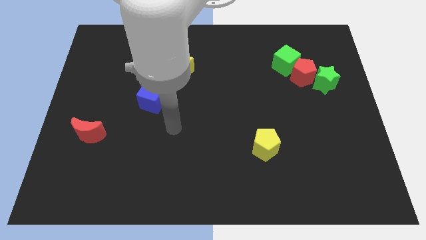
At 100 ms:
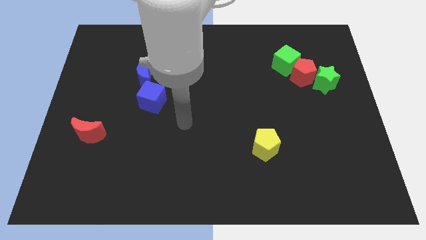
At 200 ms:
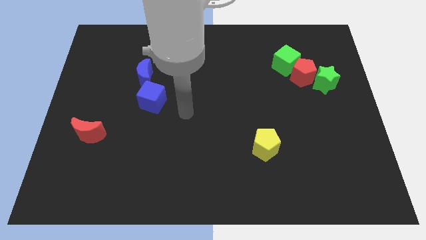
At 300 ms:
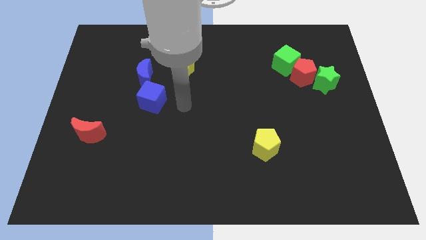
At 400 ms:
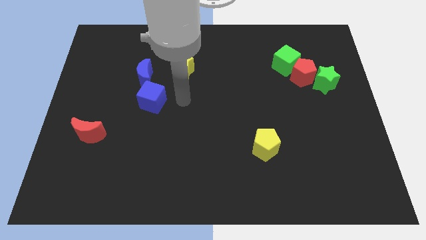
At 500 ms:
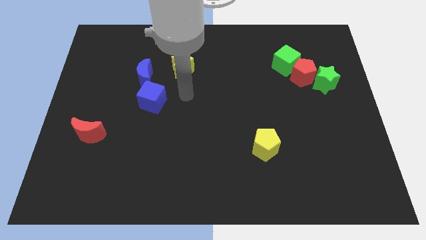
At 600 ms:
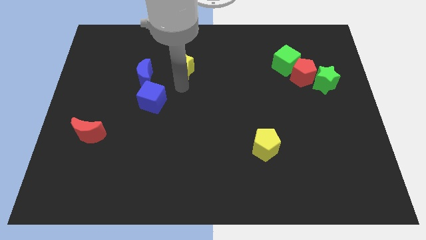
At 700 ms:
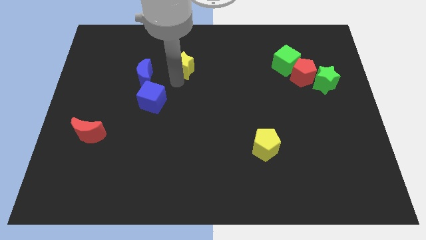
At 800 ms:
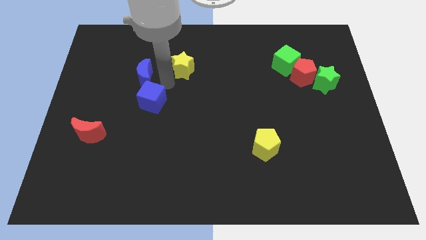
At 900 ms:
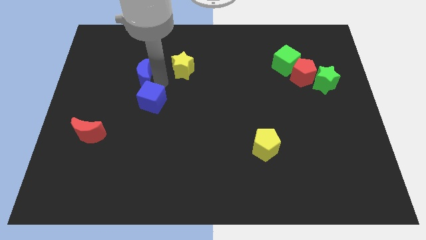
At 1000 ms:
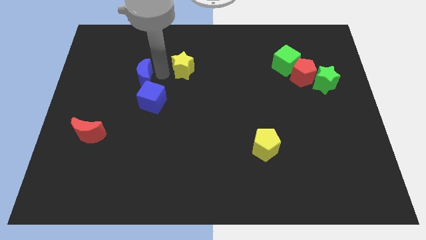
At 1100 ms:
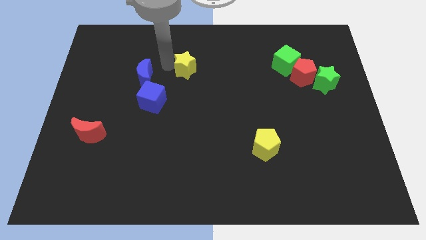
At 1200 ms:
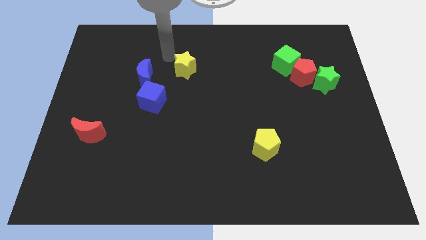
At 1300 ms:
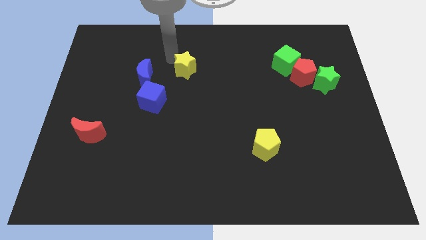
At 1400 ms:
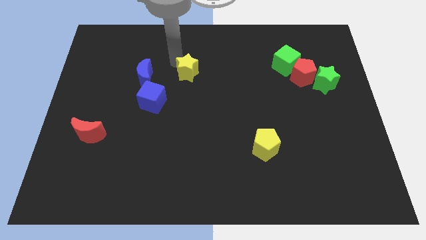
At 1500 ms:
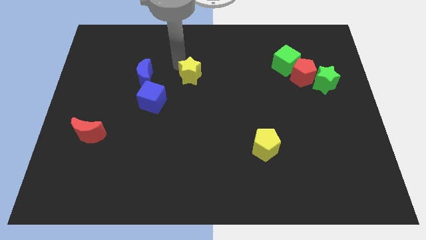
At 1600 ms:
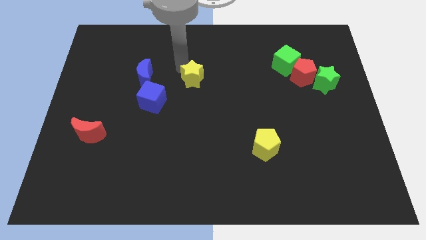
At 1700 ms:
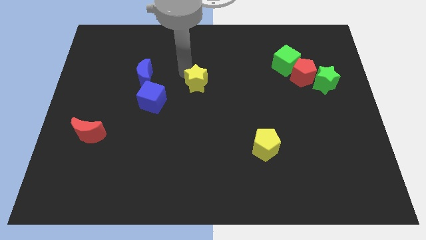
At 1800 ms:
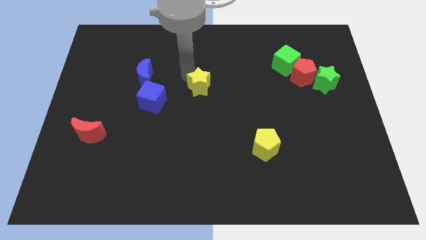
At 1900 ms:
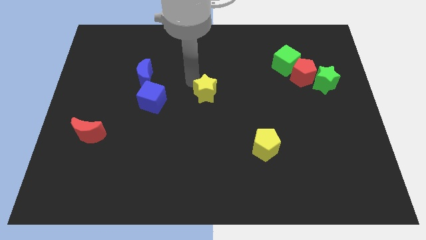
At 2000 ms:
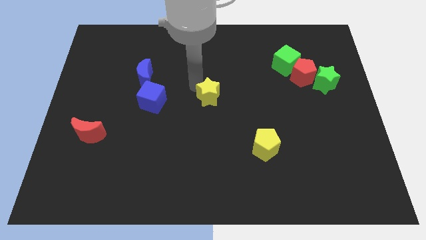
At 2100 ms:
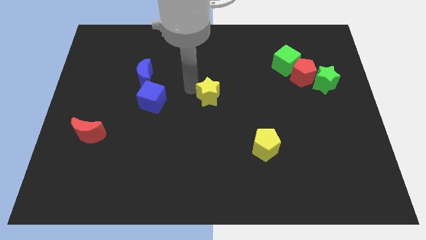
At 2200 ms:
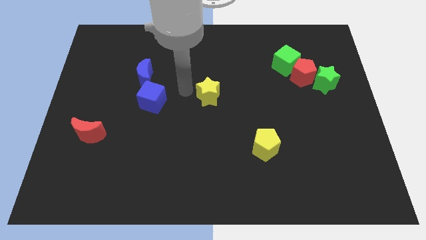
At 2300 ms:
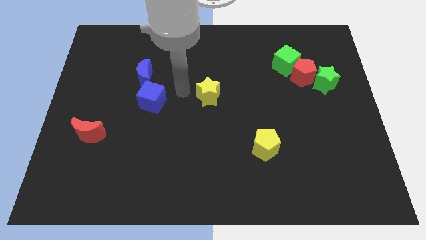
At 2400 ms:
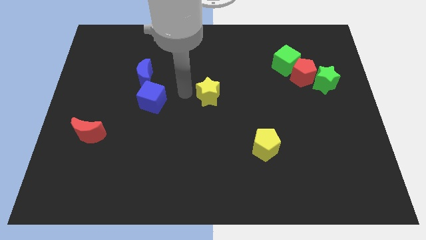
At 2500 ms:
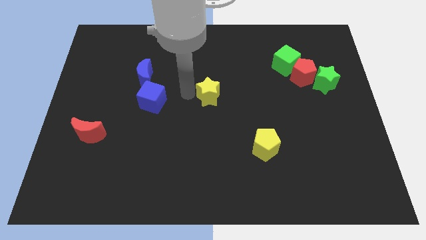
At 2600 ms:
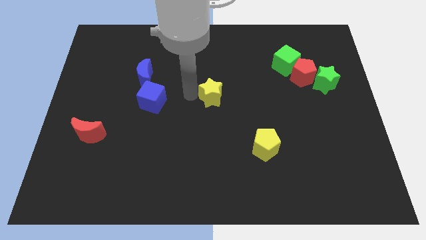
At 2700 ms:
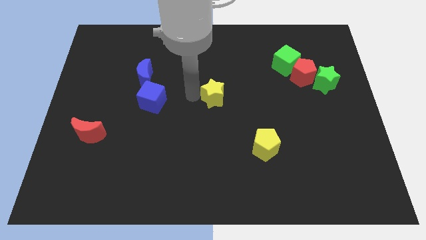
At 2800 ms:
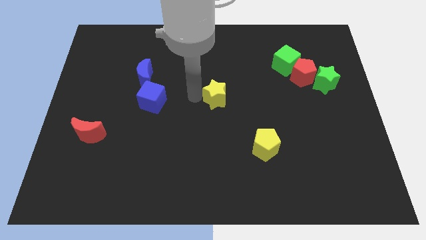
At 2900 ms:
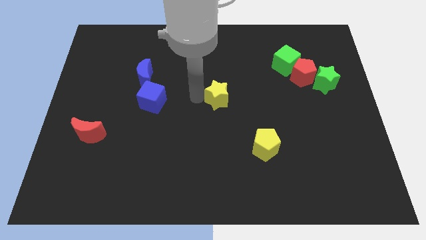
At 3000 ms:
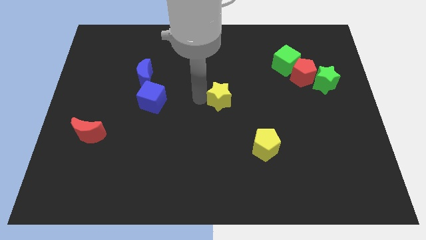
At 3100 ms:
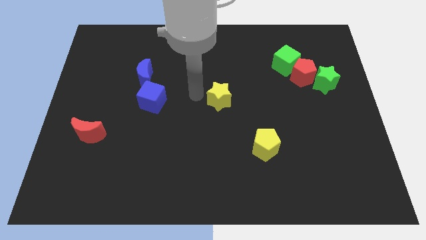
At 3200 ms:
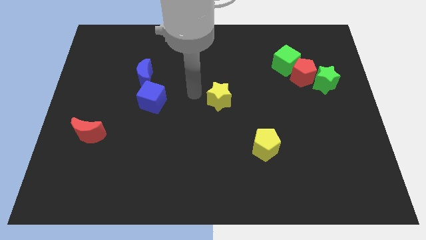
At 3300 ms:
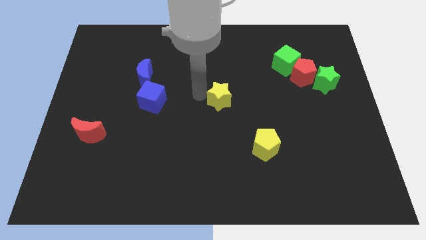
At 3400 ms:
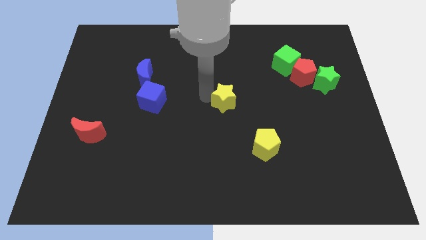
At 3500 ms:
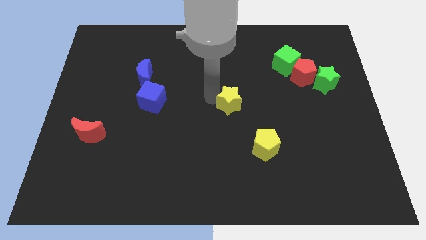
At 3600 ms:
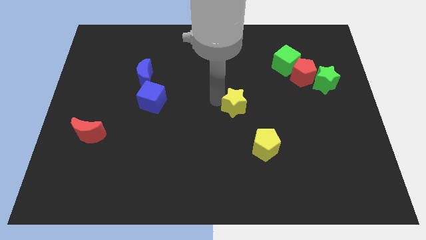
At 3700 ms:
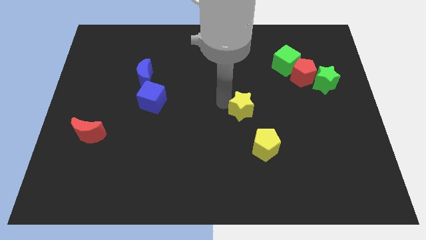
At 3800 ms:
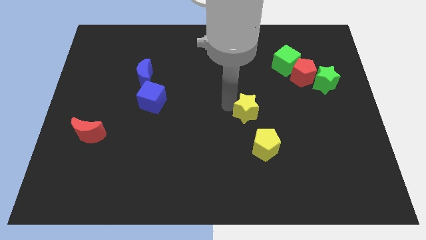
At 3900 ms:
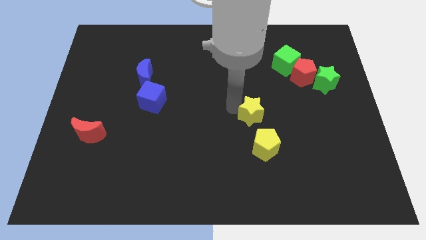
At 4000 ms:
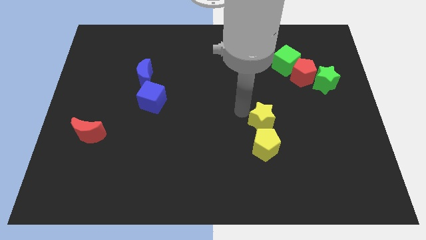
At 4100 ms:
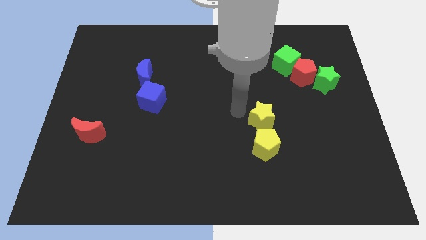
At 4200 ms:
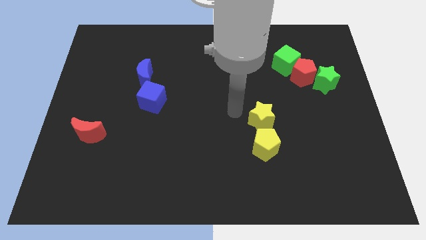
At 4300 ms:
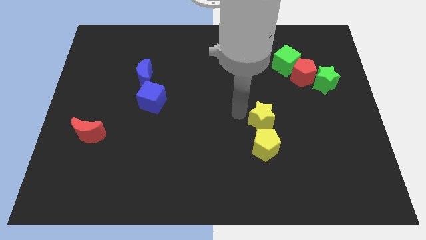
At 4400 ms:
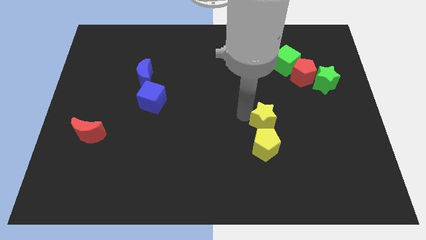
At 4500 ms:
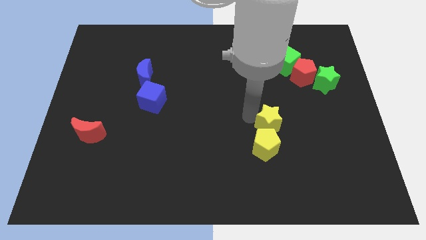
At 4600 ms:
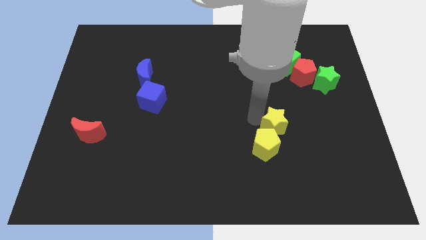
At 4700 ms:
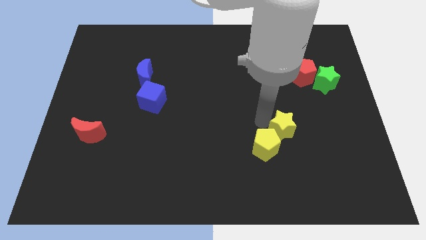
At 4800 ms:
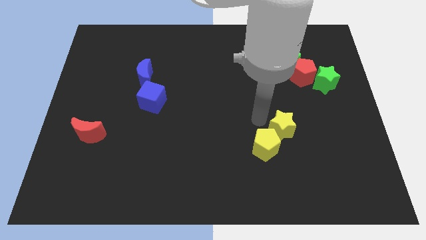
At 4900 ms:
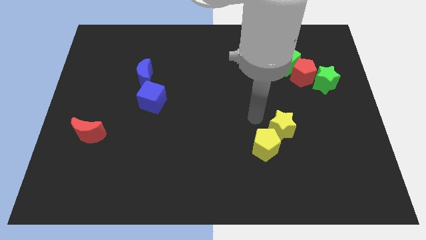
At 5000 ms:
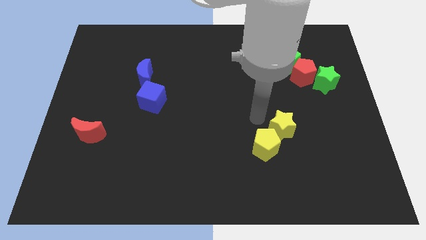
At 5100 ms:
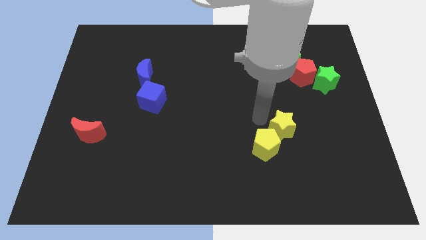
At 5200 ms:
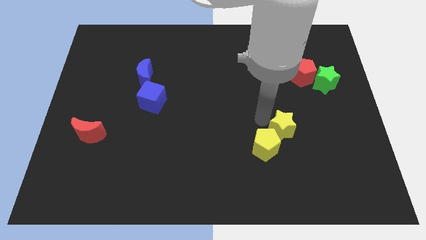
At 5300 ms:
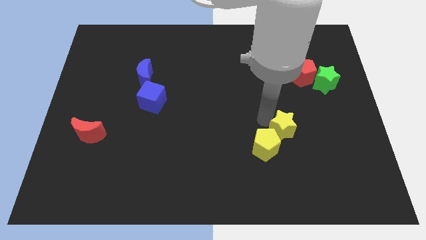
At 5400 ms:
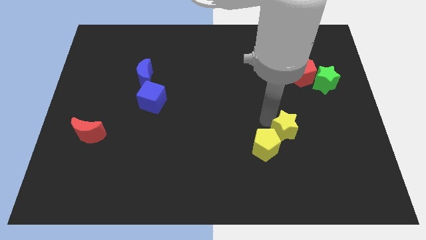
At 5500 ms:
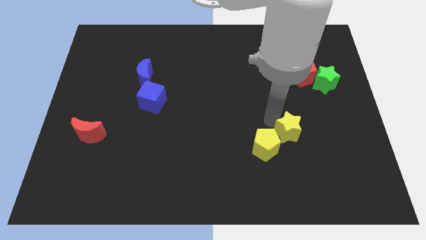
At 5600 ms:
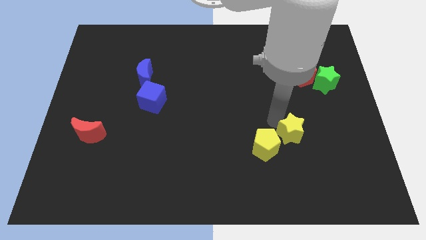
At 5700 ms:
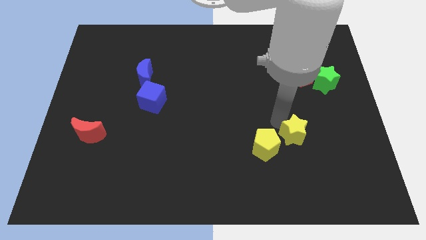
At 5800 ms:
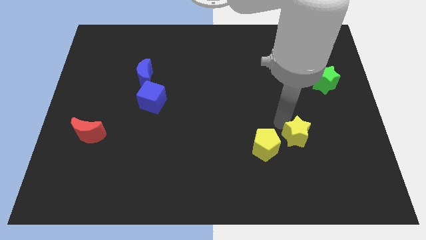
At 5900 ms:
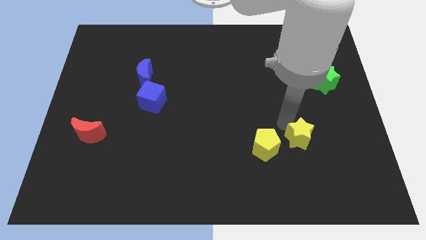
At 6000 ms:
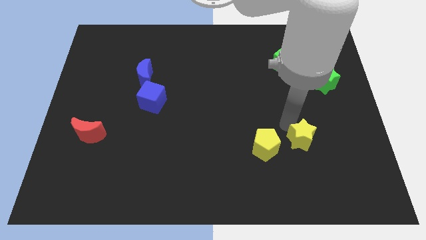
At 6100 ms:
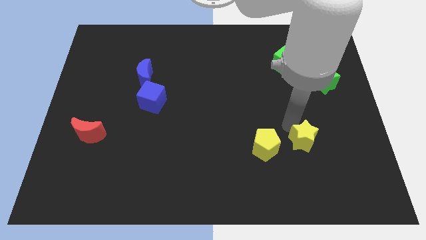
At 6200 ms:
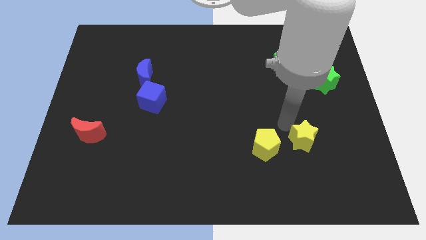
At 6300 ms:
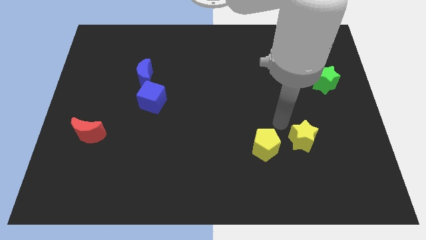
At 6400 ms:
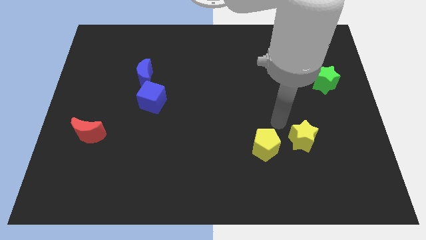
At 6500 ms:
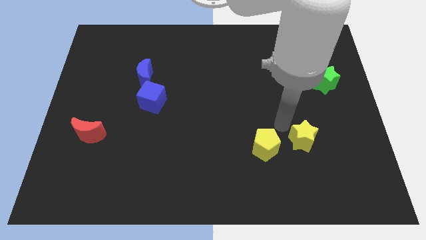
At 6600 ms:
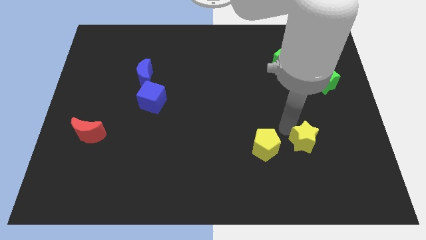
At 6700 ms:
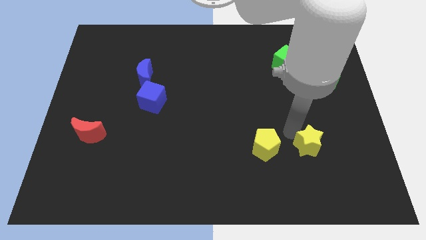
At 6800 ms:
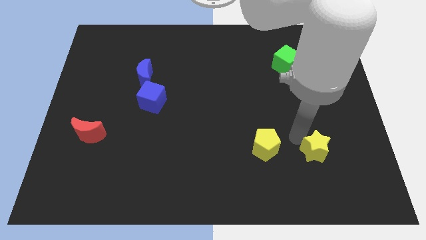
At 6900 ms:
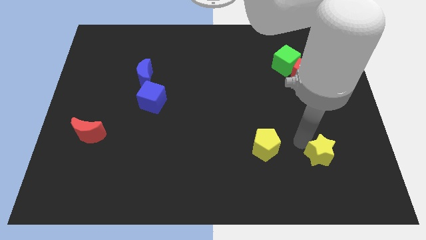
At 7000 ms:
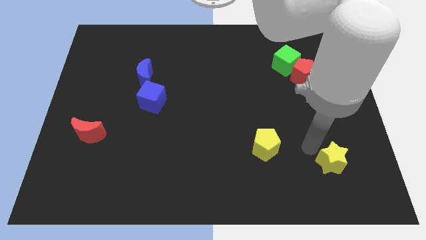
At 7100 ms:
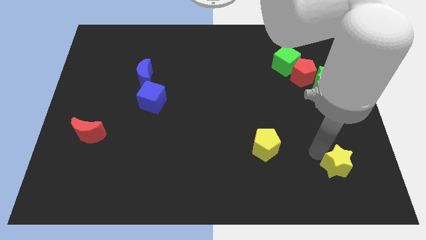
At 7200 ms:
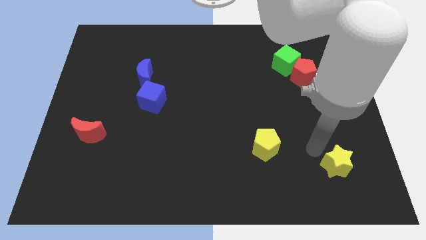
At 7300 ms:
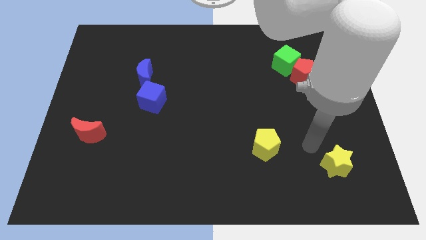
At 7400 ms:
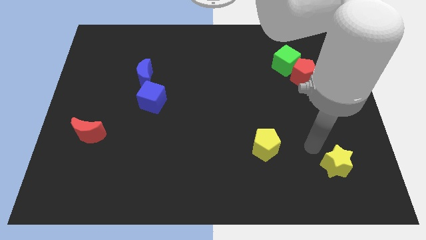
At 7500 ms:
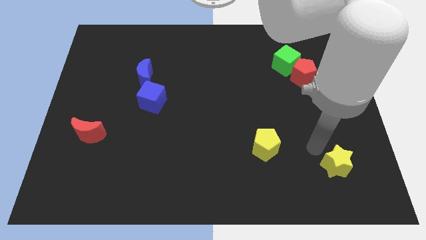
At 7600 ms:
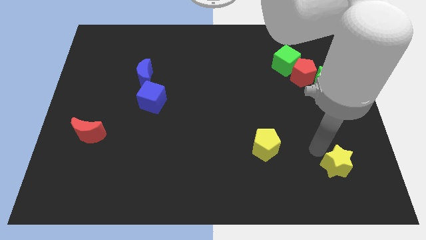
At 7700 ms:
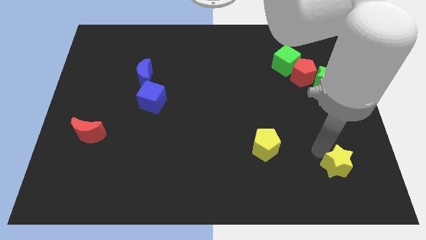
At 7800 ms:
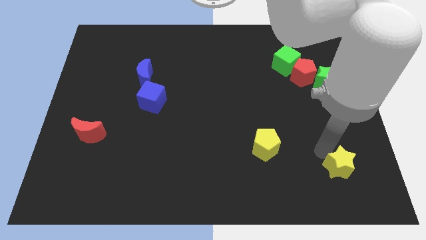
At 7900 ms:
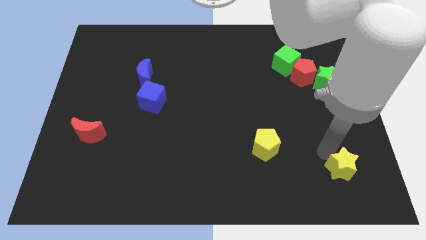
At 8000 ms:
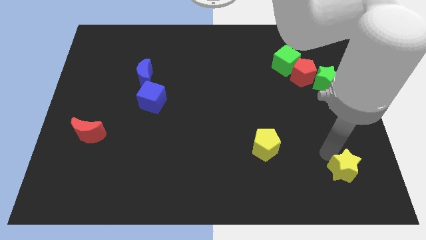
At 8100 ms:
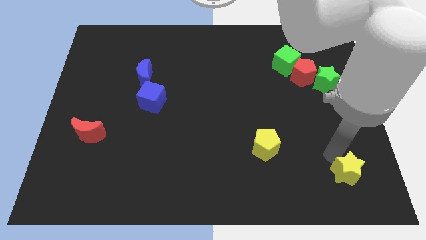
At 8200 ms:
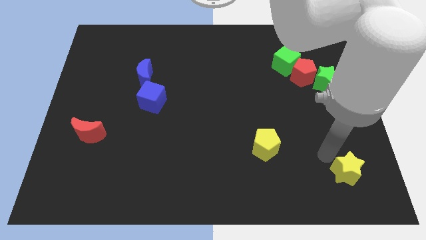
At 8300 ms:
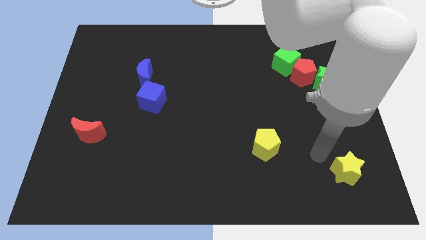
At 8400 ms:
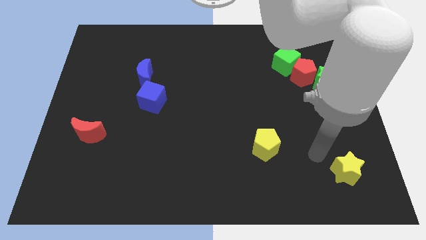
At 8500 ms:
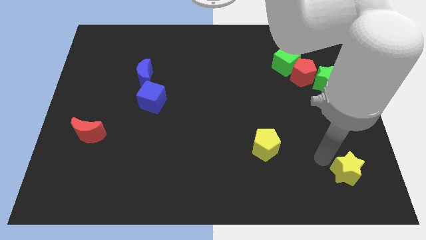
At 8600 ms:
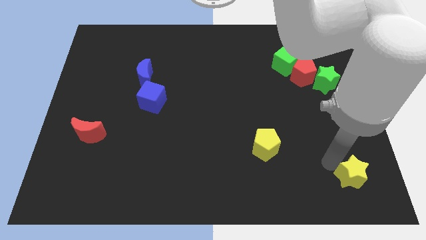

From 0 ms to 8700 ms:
slide the yellow star to the bottom right of the board
